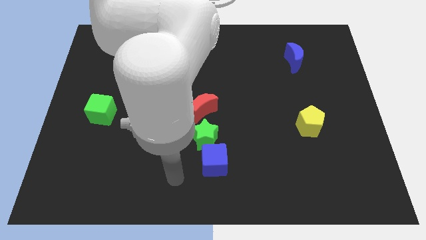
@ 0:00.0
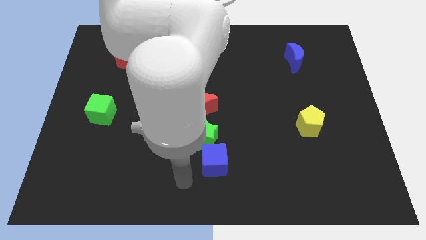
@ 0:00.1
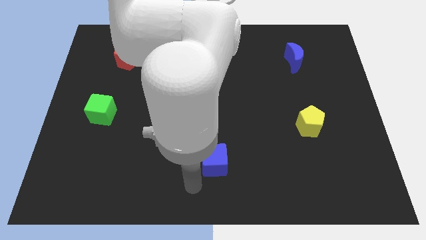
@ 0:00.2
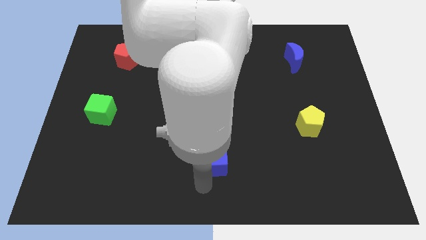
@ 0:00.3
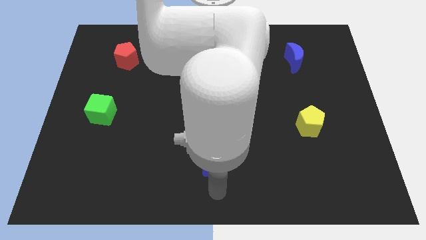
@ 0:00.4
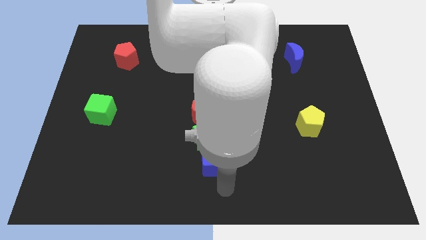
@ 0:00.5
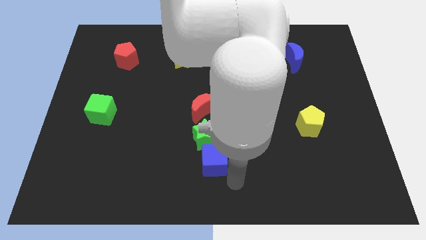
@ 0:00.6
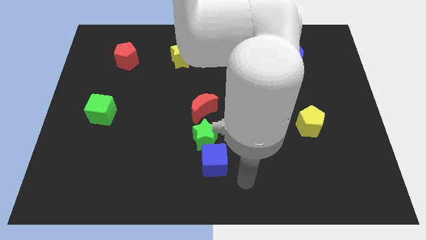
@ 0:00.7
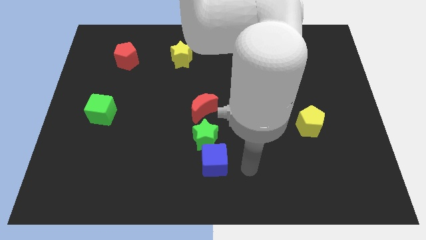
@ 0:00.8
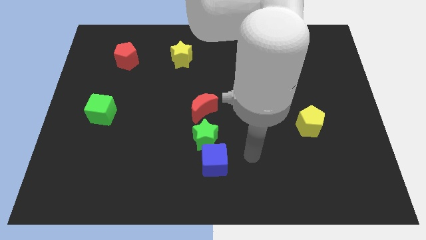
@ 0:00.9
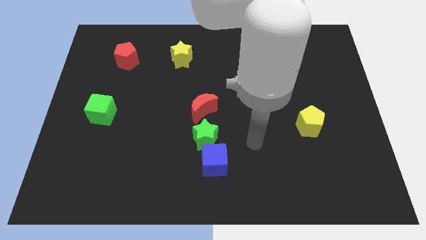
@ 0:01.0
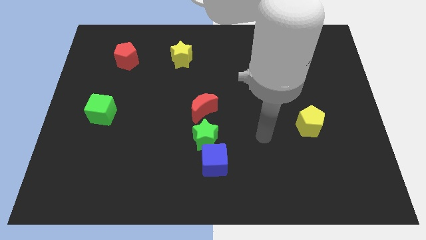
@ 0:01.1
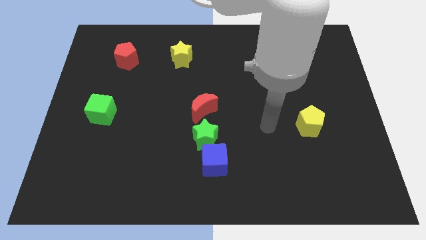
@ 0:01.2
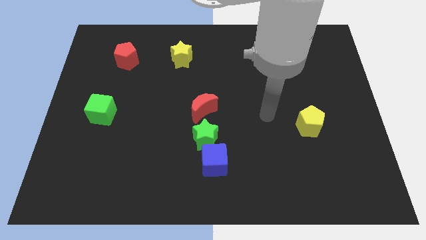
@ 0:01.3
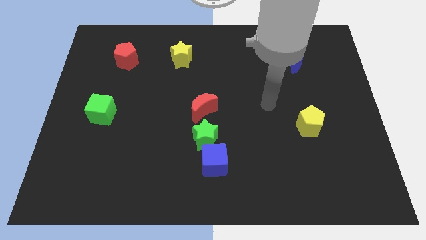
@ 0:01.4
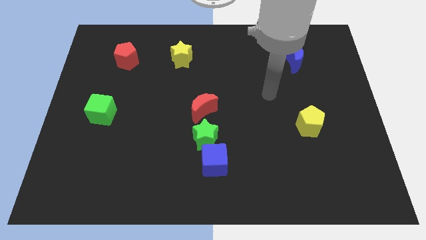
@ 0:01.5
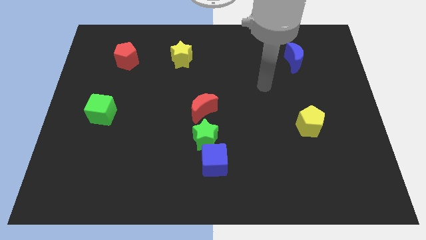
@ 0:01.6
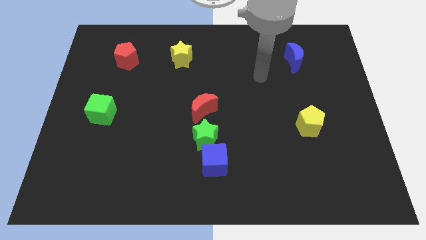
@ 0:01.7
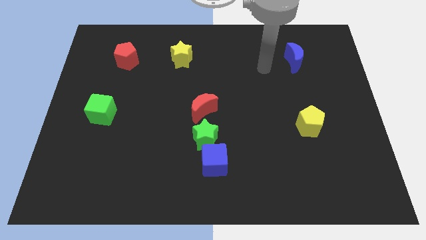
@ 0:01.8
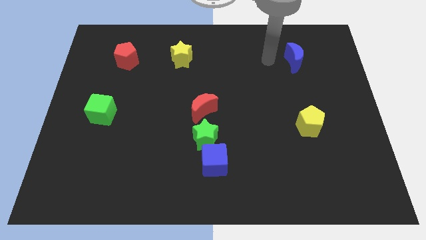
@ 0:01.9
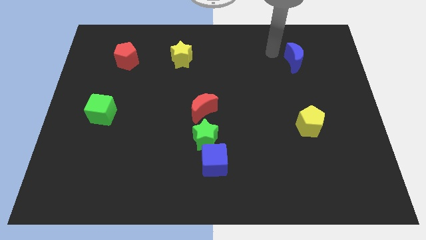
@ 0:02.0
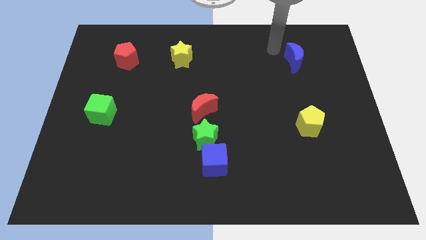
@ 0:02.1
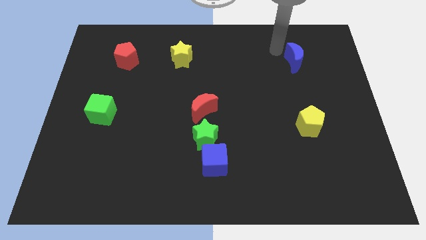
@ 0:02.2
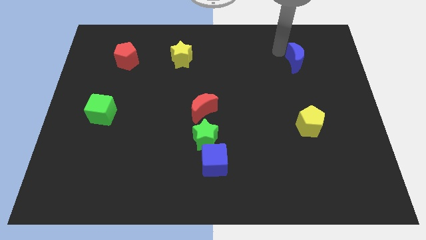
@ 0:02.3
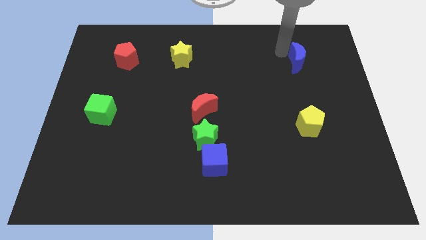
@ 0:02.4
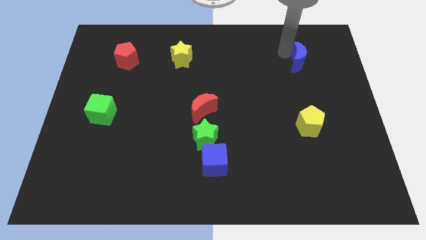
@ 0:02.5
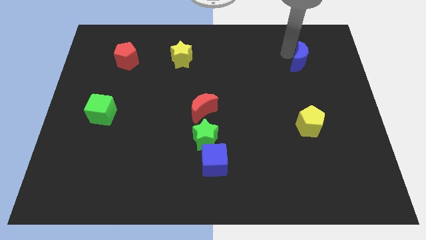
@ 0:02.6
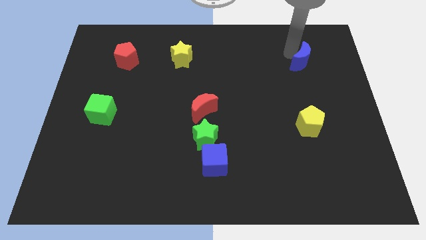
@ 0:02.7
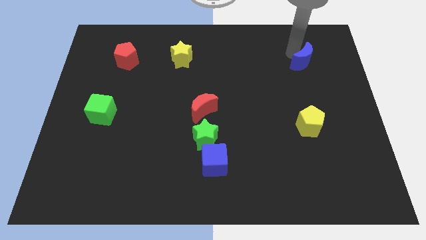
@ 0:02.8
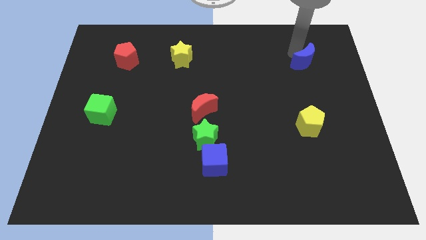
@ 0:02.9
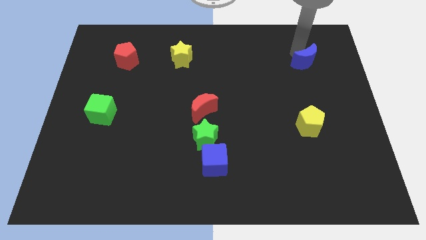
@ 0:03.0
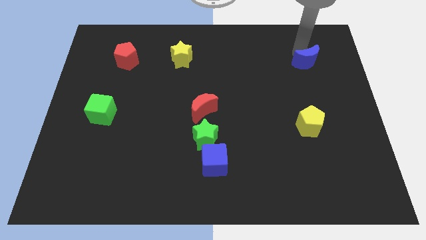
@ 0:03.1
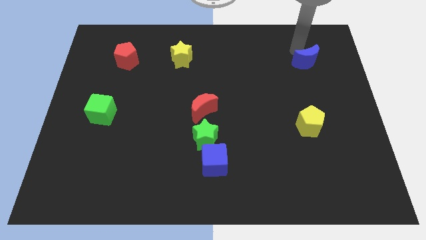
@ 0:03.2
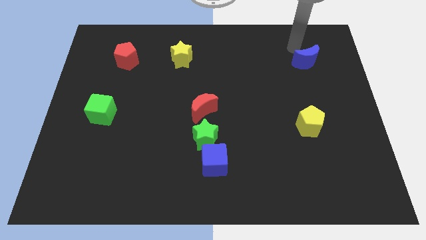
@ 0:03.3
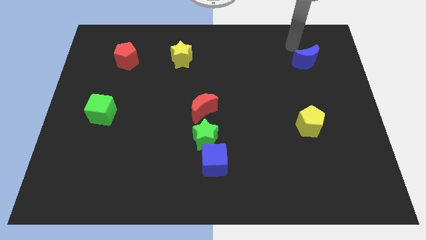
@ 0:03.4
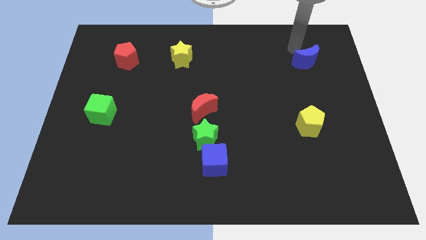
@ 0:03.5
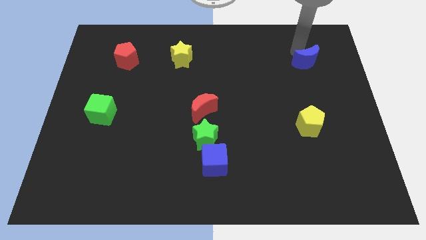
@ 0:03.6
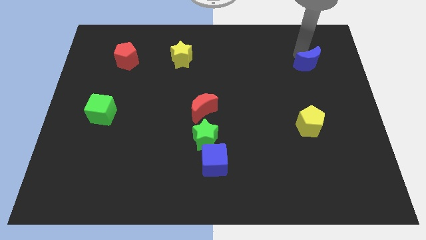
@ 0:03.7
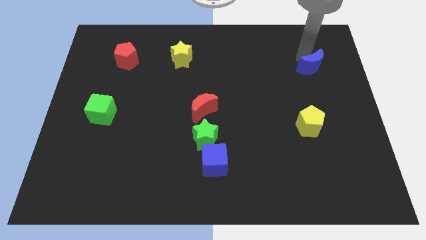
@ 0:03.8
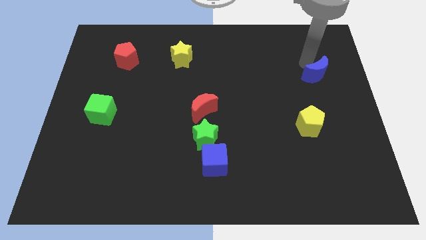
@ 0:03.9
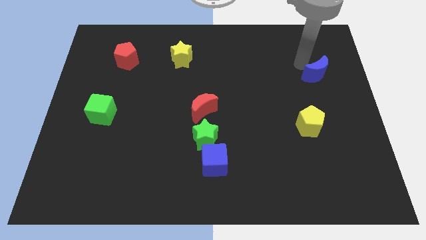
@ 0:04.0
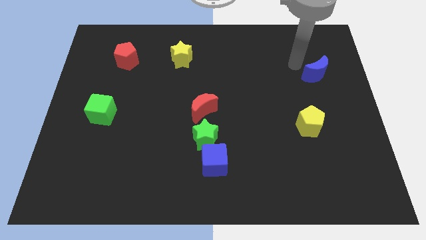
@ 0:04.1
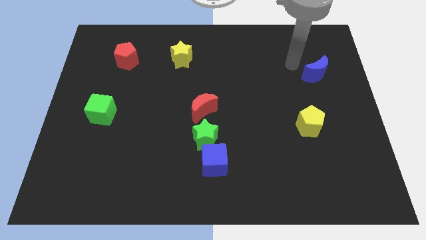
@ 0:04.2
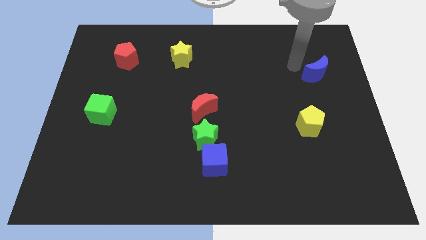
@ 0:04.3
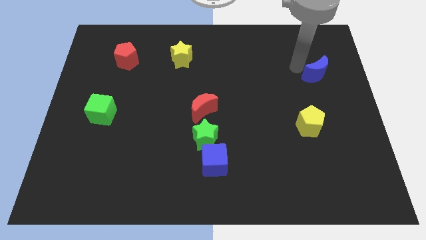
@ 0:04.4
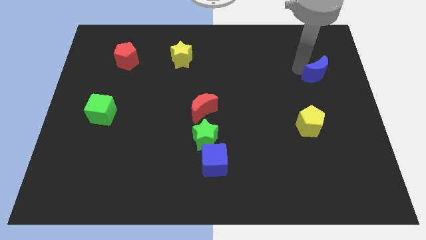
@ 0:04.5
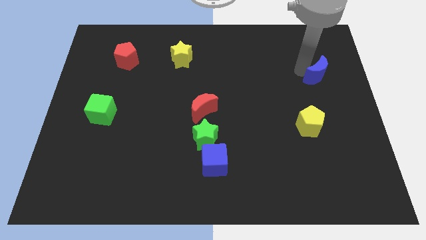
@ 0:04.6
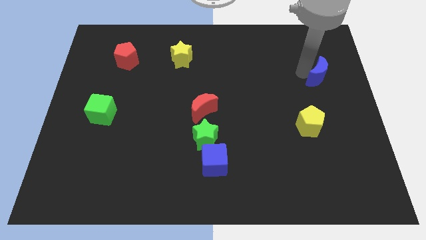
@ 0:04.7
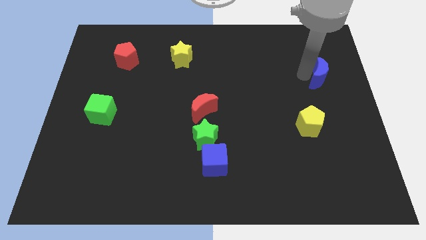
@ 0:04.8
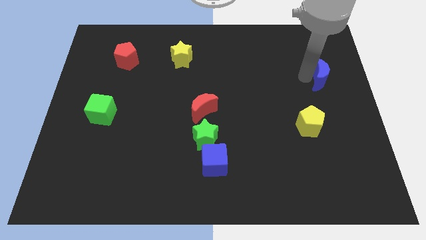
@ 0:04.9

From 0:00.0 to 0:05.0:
push the blue moon to the center right

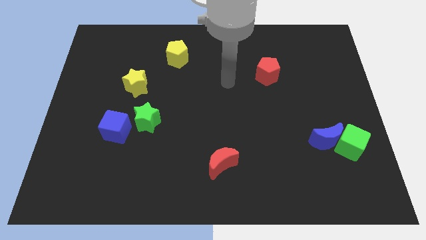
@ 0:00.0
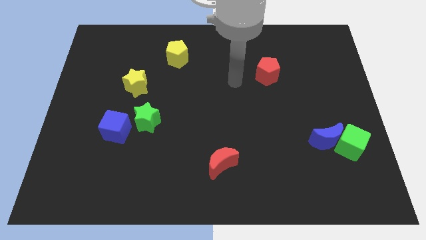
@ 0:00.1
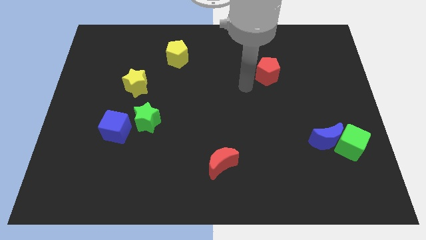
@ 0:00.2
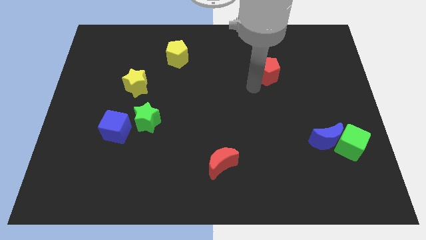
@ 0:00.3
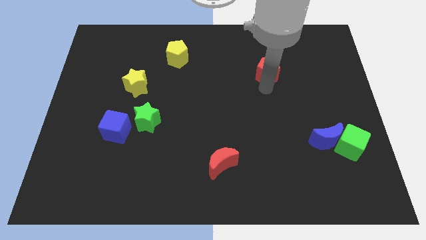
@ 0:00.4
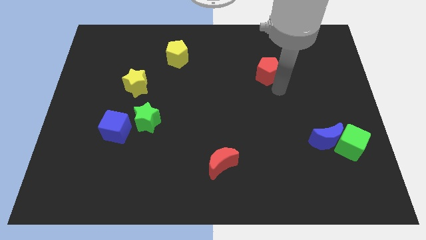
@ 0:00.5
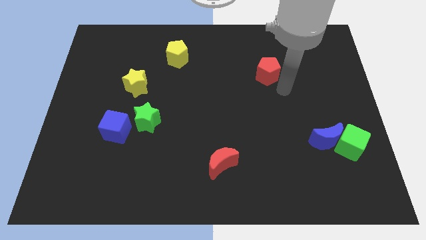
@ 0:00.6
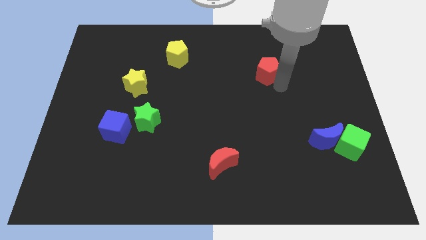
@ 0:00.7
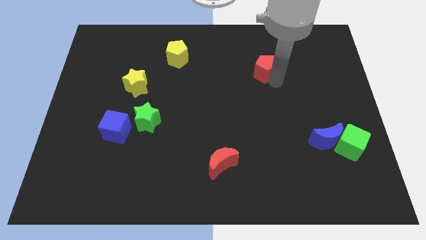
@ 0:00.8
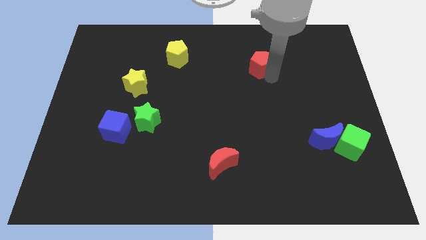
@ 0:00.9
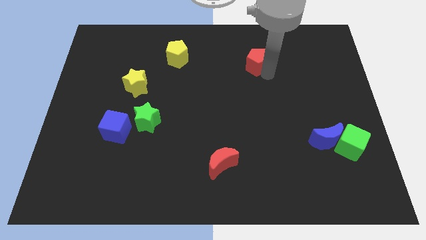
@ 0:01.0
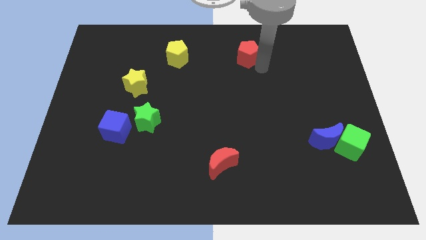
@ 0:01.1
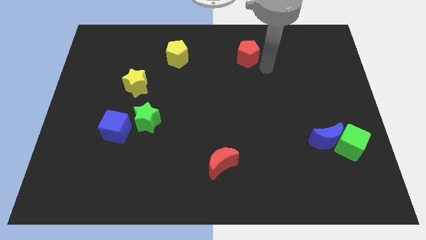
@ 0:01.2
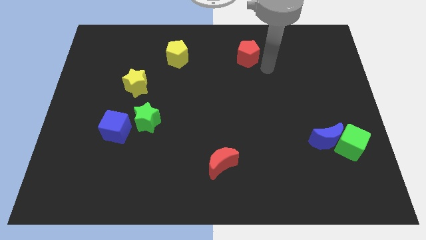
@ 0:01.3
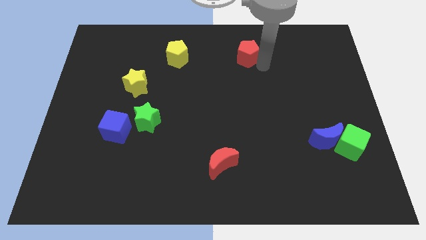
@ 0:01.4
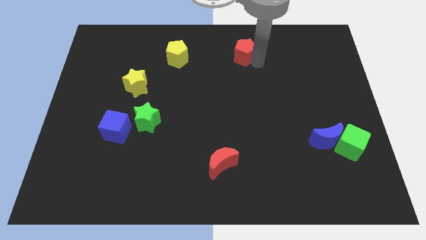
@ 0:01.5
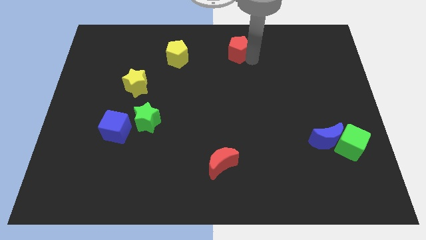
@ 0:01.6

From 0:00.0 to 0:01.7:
put the red pentagon to the towards your base
